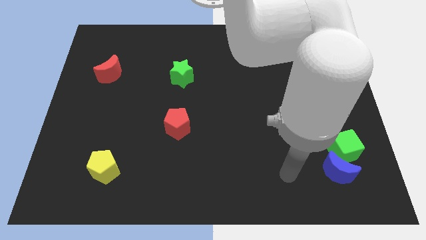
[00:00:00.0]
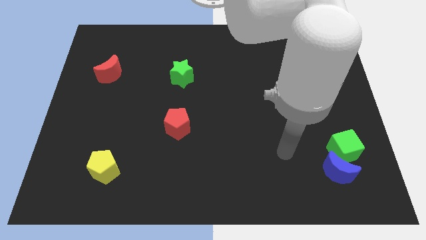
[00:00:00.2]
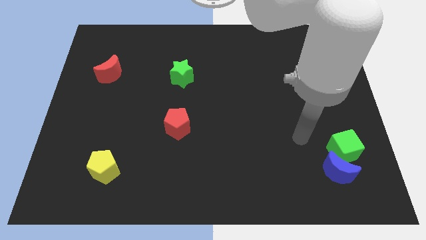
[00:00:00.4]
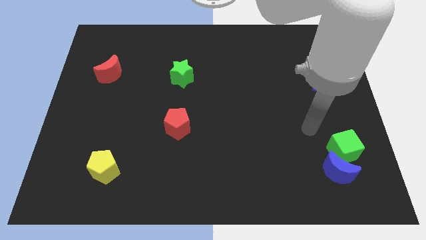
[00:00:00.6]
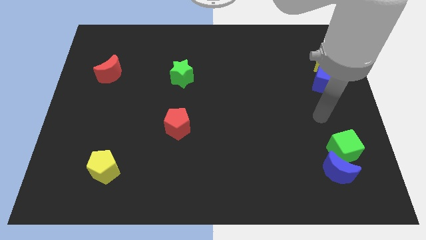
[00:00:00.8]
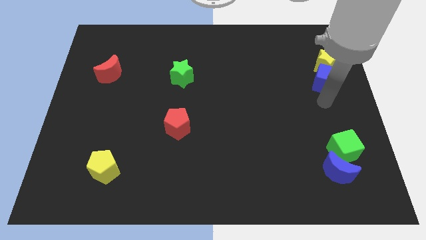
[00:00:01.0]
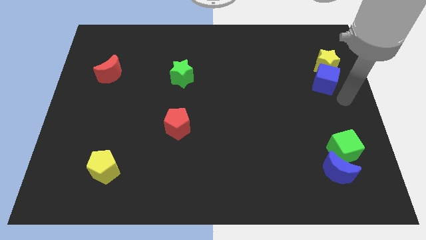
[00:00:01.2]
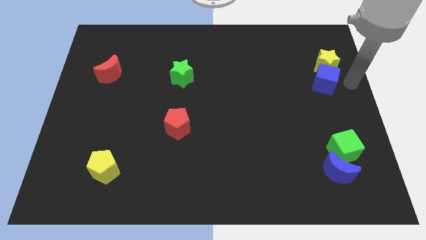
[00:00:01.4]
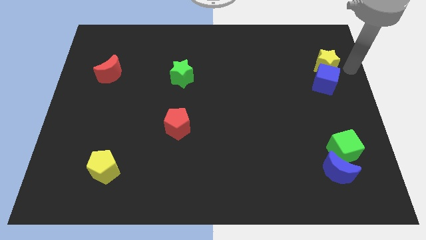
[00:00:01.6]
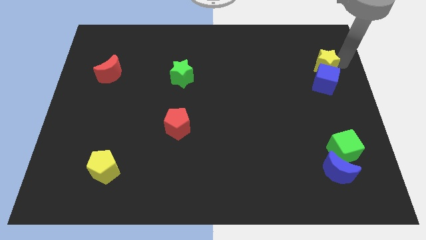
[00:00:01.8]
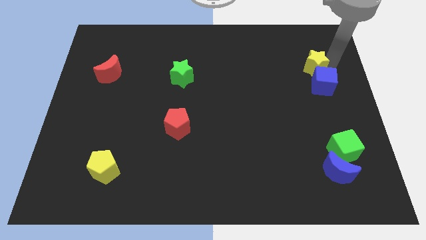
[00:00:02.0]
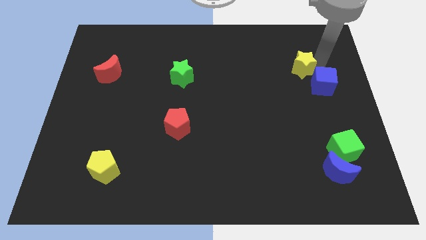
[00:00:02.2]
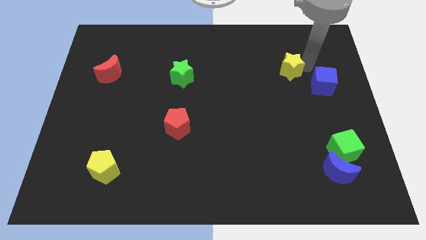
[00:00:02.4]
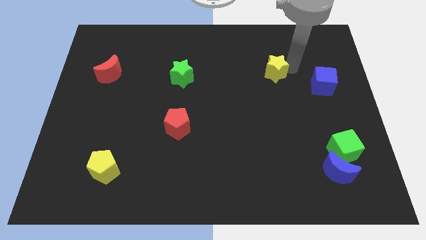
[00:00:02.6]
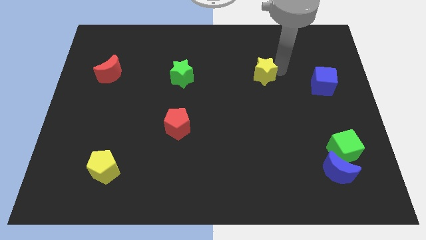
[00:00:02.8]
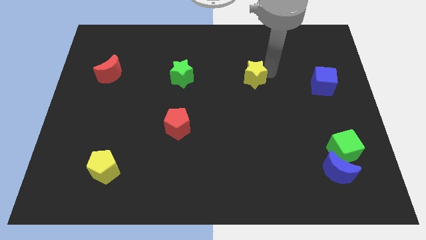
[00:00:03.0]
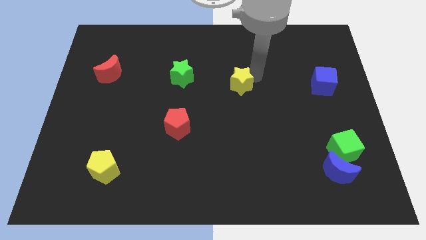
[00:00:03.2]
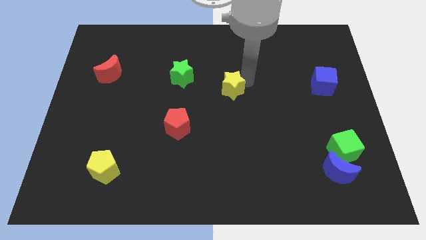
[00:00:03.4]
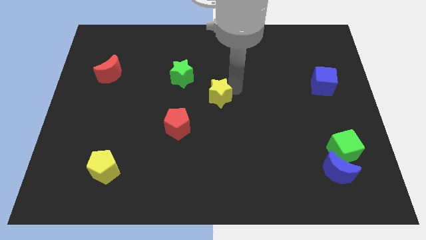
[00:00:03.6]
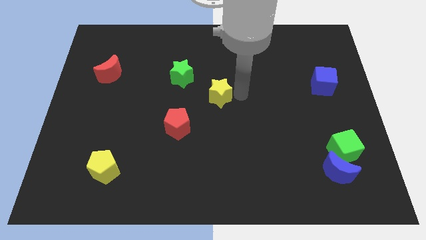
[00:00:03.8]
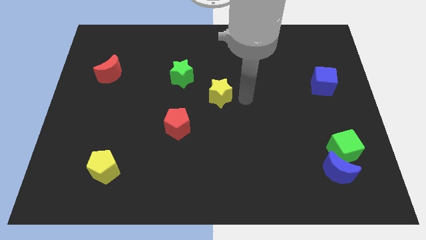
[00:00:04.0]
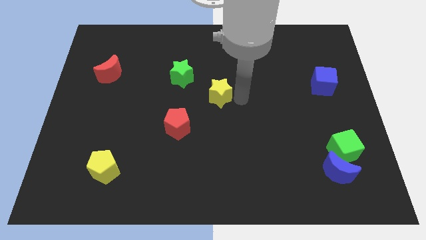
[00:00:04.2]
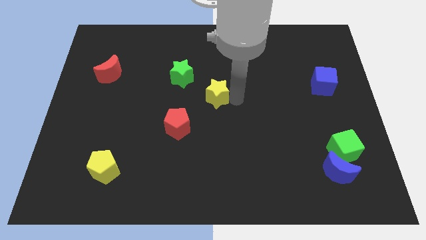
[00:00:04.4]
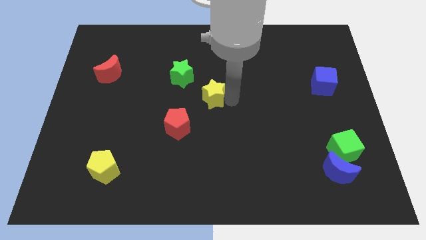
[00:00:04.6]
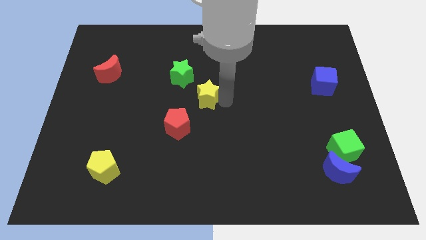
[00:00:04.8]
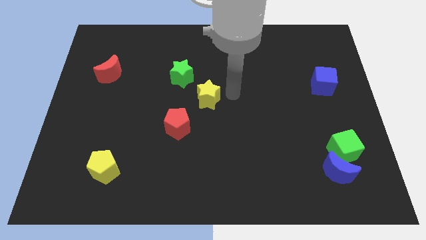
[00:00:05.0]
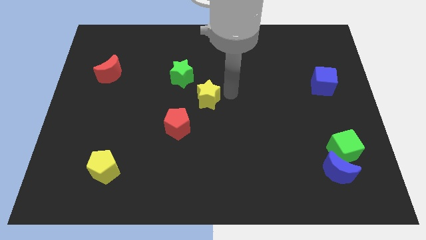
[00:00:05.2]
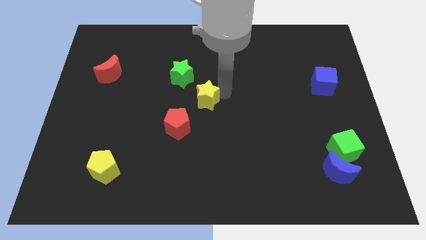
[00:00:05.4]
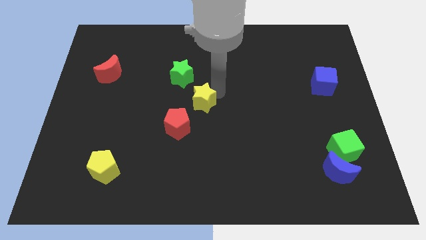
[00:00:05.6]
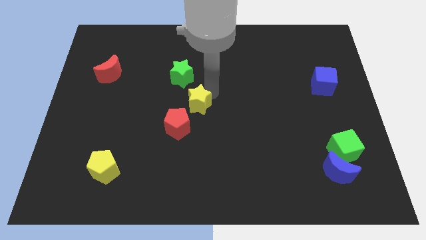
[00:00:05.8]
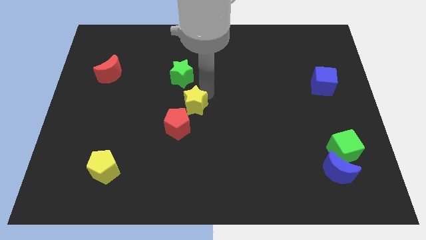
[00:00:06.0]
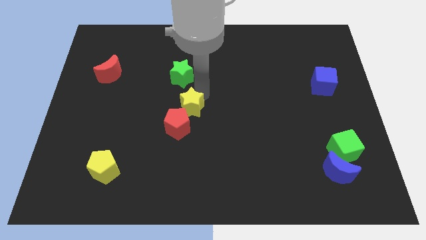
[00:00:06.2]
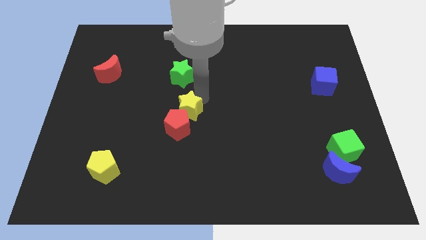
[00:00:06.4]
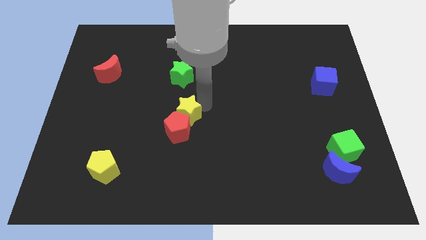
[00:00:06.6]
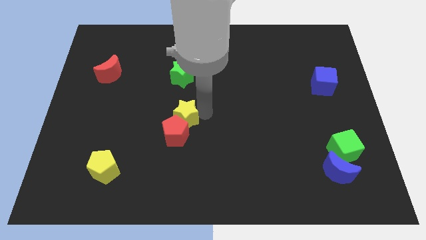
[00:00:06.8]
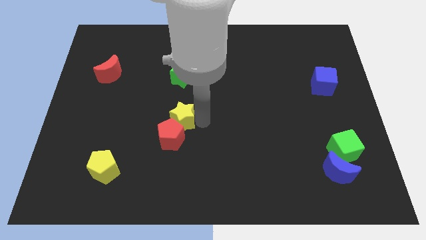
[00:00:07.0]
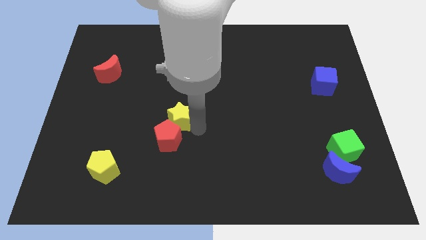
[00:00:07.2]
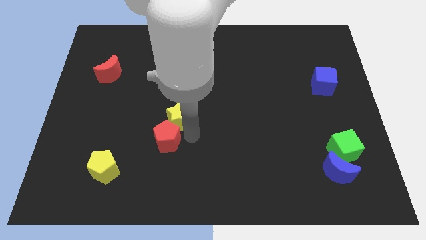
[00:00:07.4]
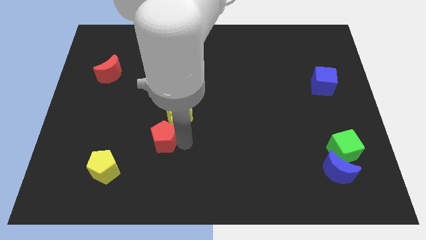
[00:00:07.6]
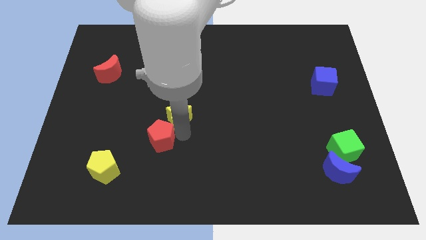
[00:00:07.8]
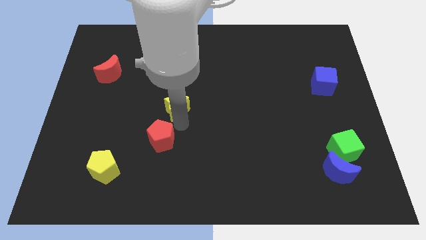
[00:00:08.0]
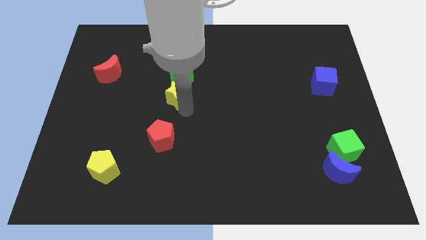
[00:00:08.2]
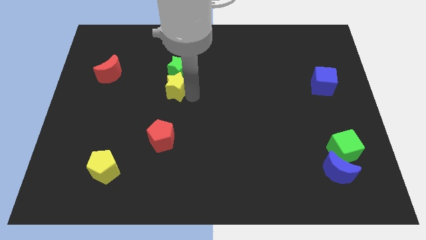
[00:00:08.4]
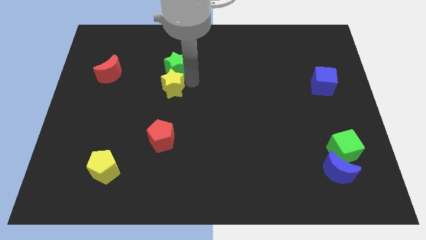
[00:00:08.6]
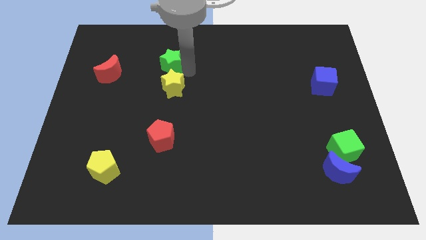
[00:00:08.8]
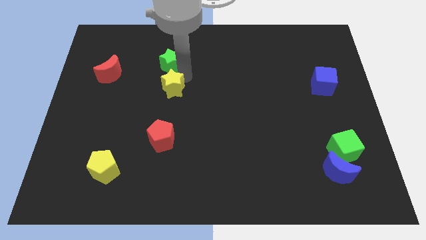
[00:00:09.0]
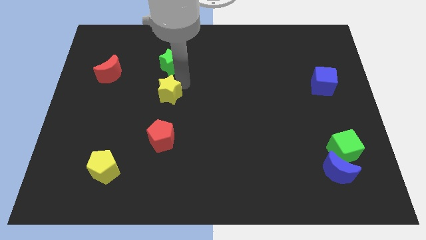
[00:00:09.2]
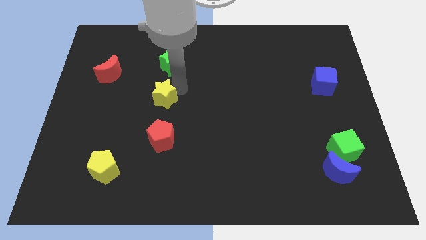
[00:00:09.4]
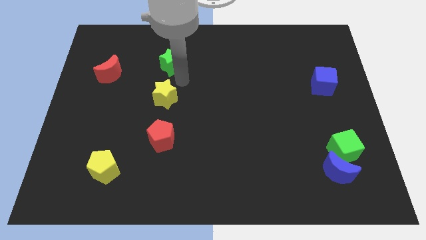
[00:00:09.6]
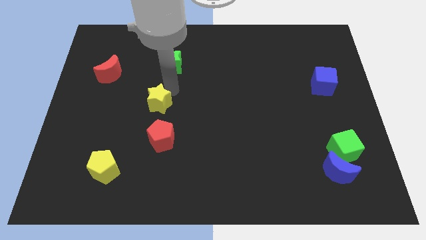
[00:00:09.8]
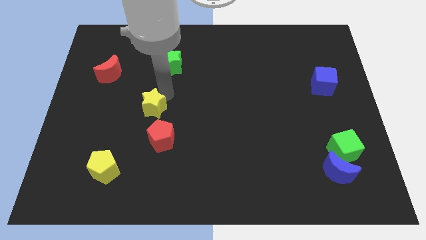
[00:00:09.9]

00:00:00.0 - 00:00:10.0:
move the yellow star diagonally up and to the left of the red pentagon

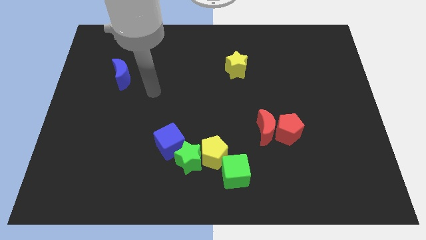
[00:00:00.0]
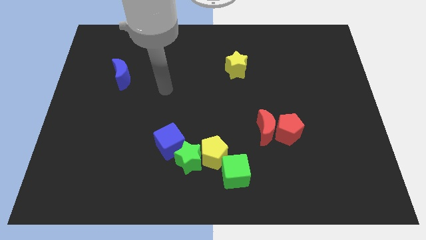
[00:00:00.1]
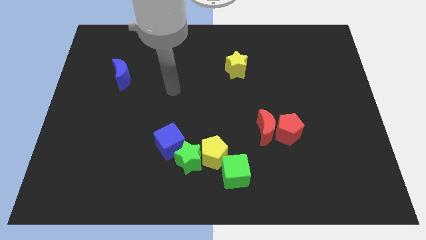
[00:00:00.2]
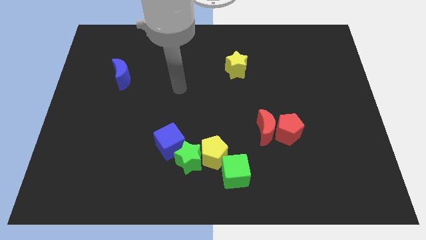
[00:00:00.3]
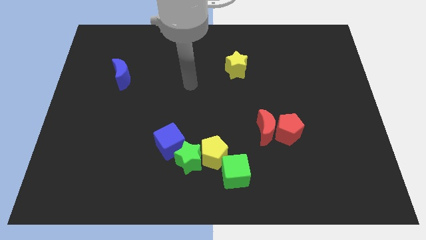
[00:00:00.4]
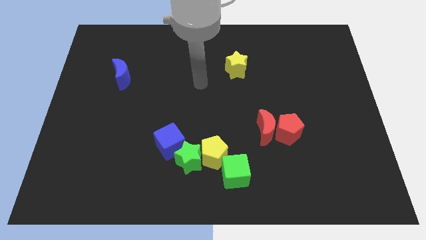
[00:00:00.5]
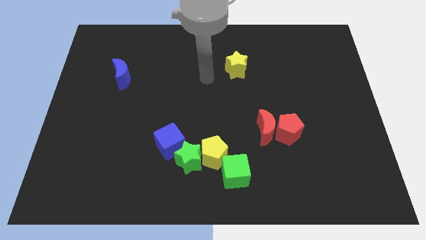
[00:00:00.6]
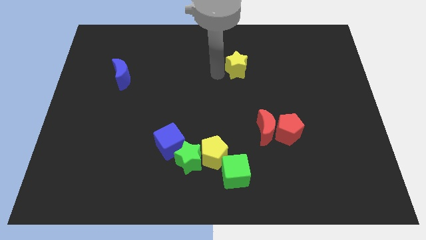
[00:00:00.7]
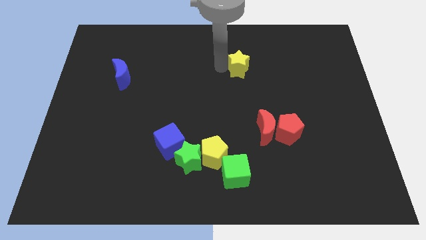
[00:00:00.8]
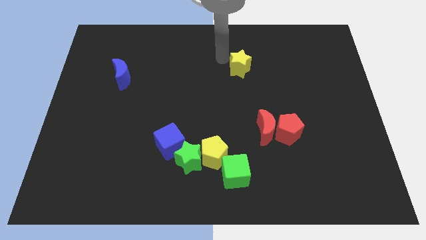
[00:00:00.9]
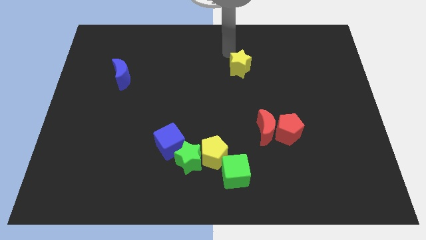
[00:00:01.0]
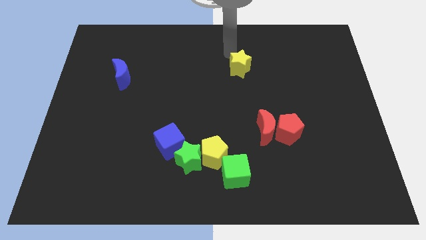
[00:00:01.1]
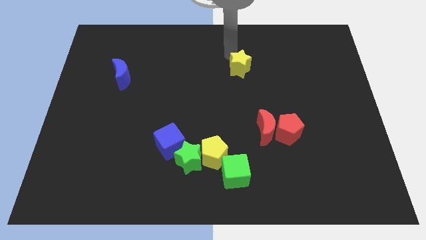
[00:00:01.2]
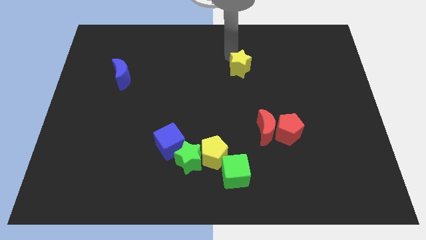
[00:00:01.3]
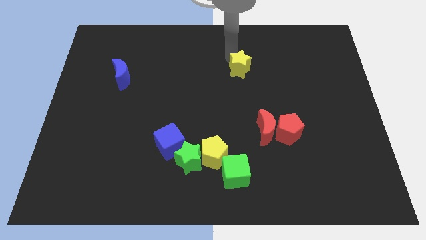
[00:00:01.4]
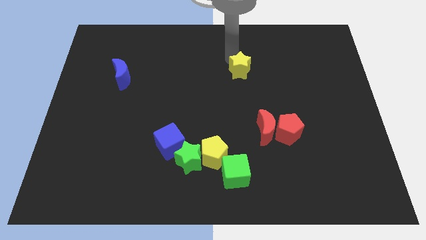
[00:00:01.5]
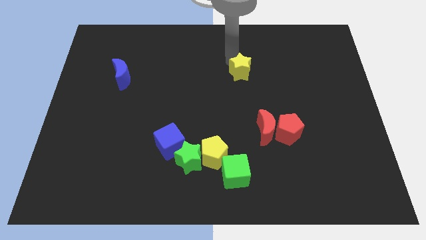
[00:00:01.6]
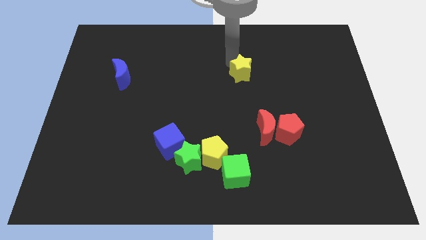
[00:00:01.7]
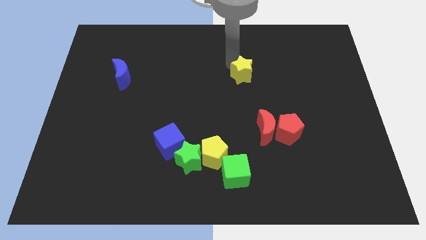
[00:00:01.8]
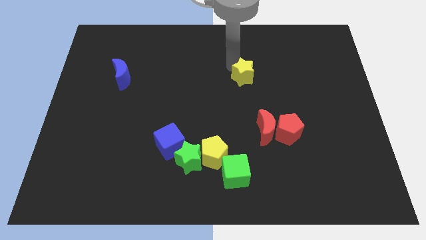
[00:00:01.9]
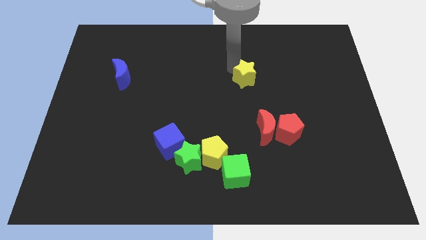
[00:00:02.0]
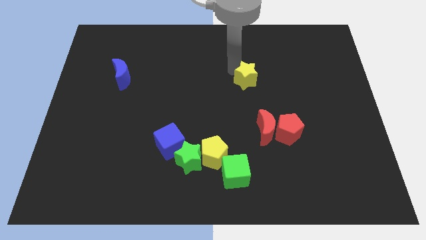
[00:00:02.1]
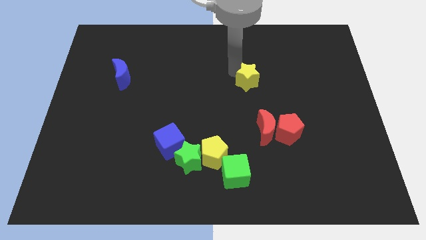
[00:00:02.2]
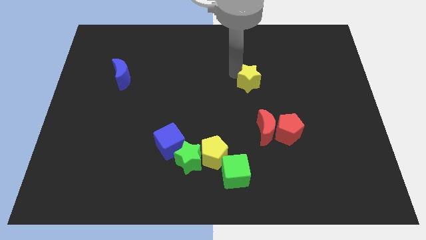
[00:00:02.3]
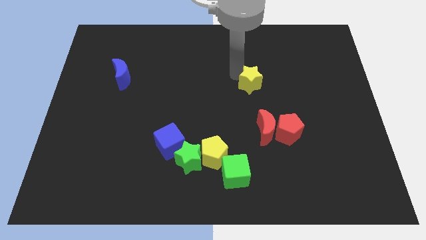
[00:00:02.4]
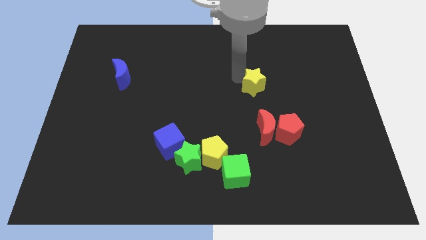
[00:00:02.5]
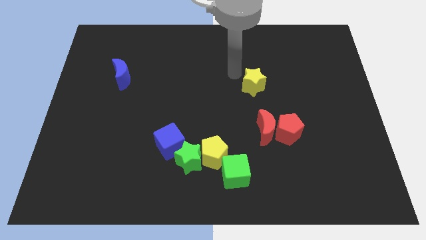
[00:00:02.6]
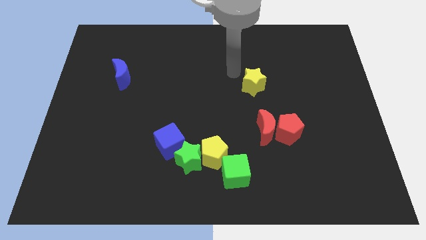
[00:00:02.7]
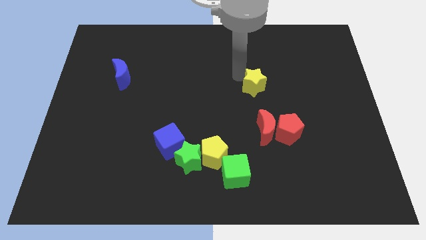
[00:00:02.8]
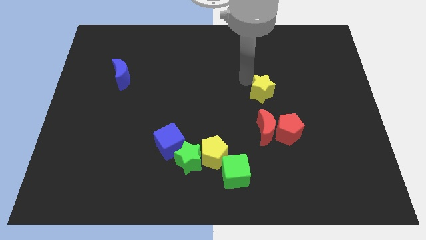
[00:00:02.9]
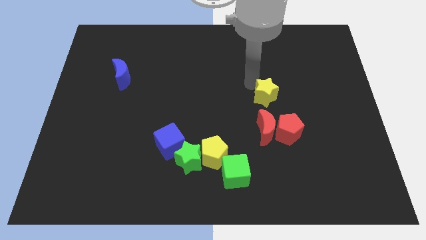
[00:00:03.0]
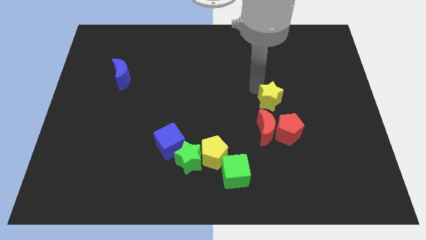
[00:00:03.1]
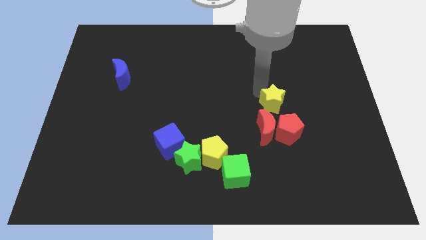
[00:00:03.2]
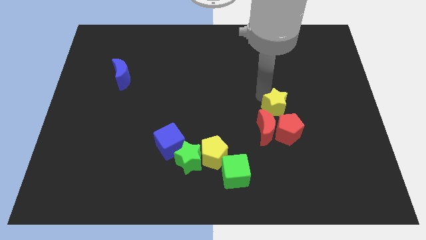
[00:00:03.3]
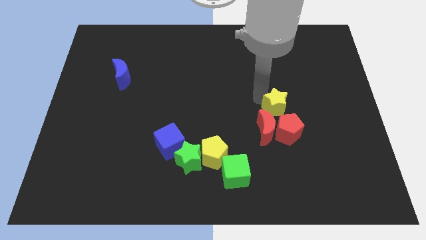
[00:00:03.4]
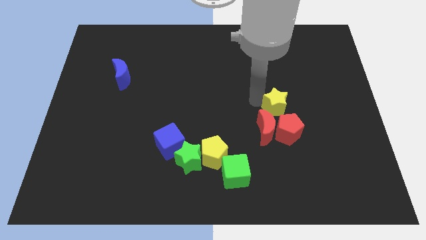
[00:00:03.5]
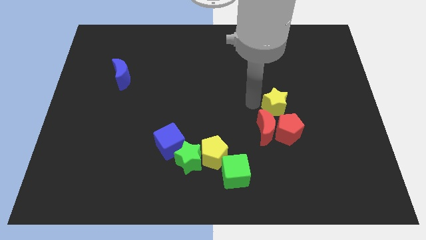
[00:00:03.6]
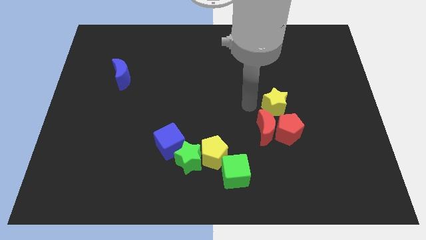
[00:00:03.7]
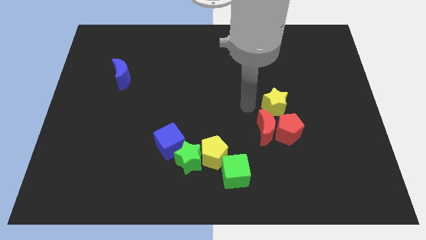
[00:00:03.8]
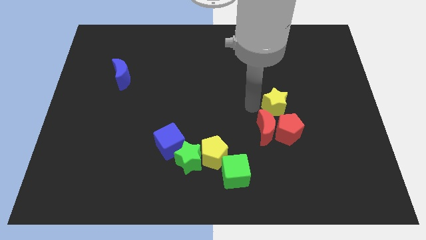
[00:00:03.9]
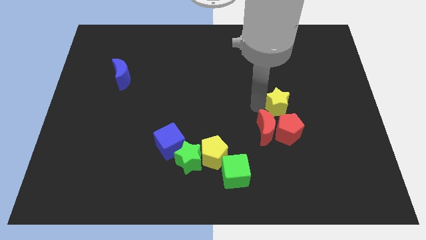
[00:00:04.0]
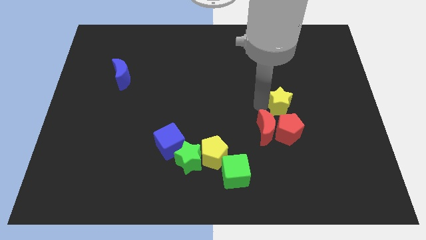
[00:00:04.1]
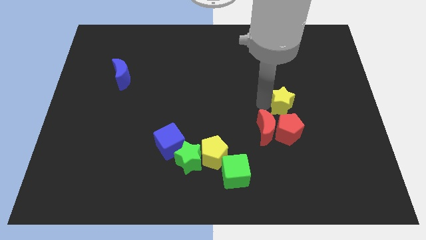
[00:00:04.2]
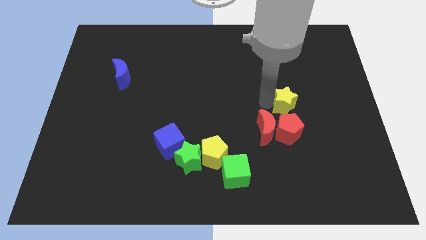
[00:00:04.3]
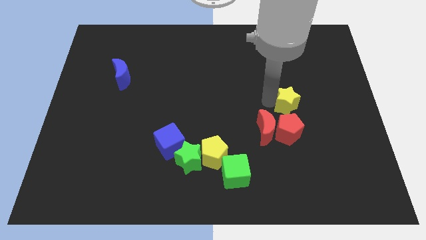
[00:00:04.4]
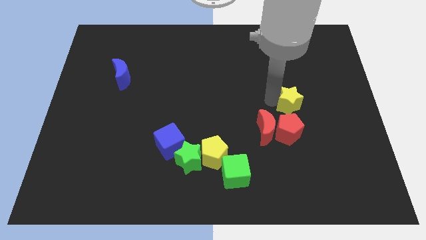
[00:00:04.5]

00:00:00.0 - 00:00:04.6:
slide the yellow star to the top right of the red pentagon
